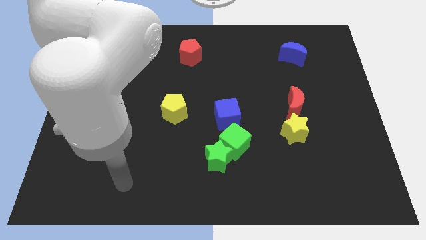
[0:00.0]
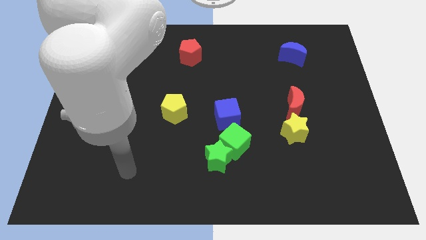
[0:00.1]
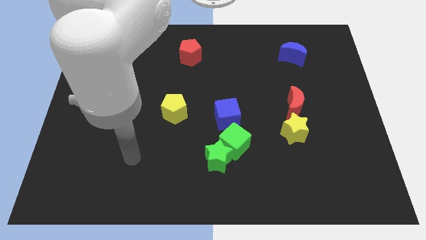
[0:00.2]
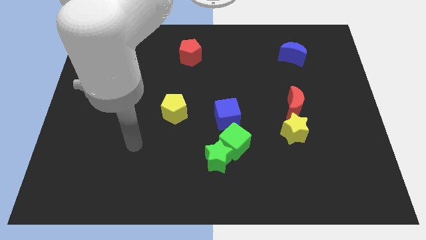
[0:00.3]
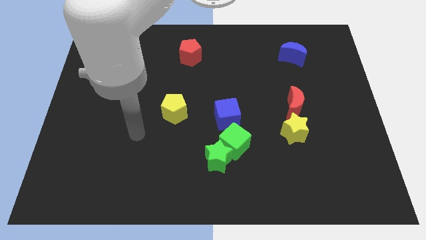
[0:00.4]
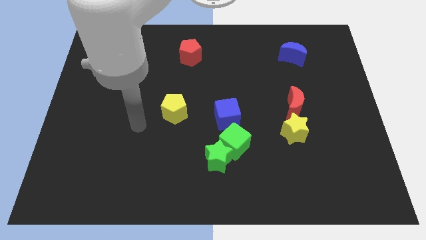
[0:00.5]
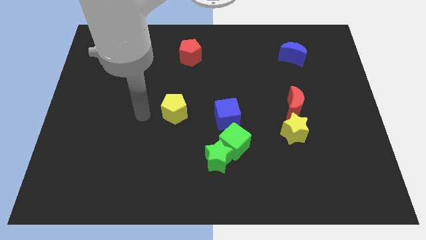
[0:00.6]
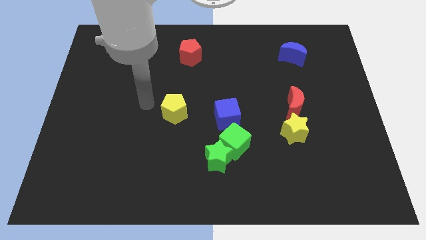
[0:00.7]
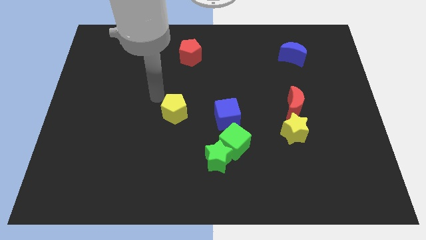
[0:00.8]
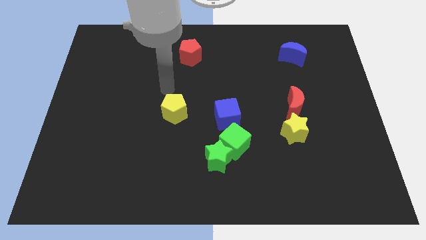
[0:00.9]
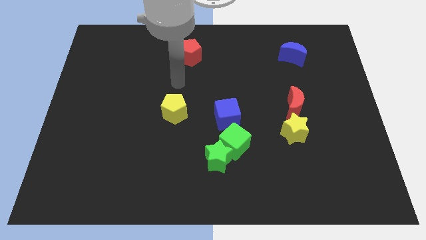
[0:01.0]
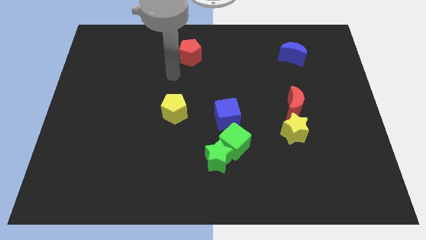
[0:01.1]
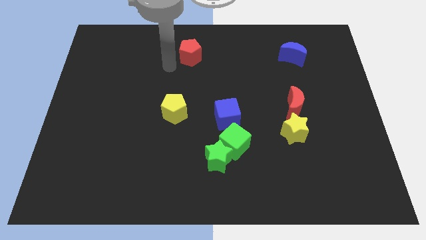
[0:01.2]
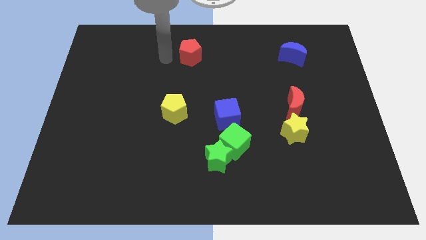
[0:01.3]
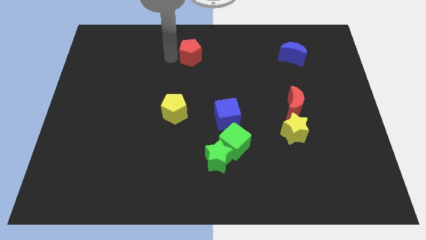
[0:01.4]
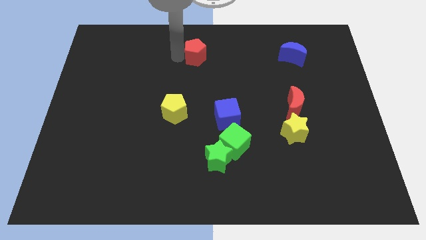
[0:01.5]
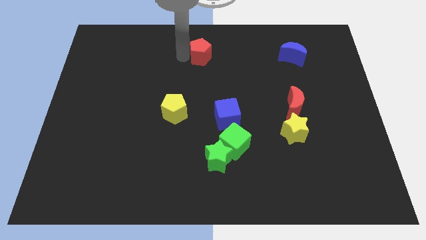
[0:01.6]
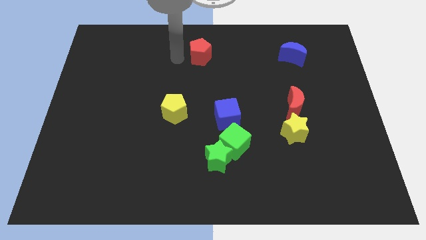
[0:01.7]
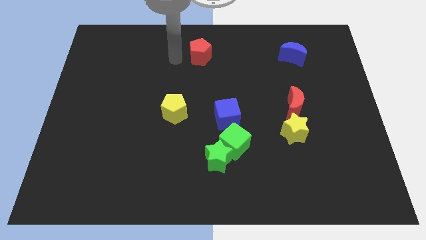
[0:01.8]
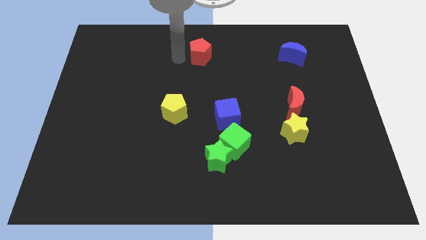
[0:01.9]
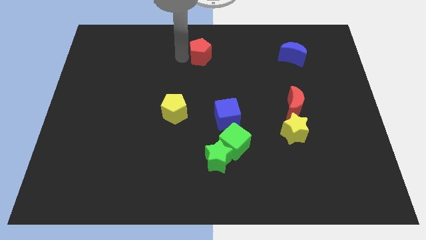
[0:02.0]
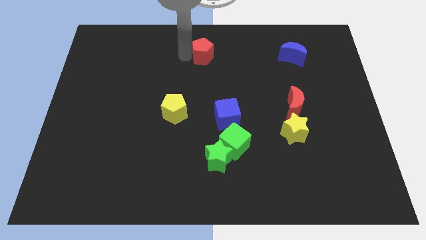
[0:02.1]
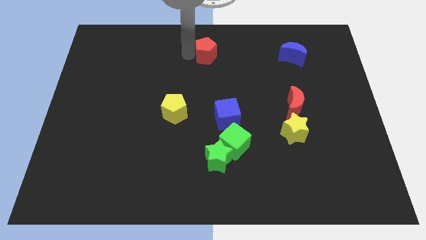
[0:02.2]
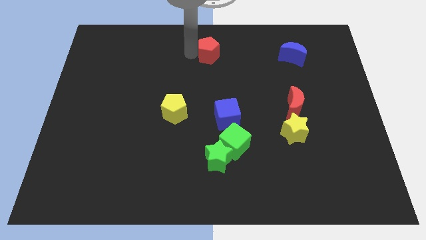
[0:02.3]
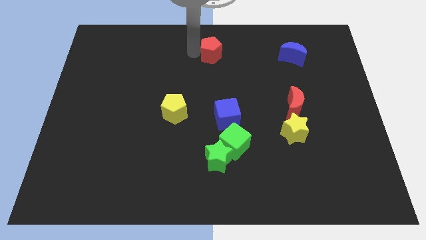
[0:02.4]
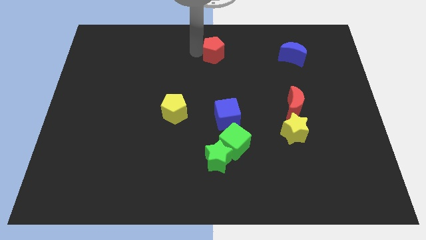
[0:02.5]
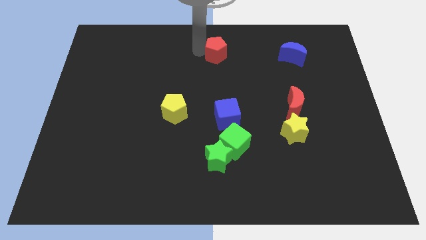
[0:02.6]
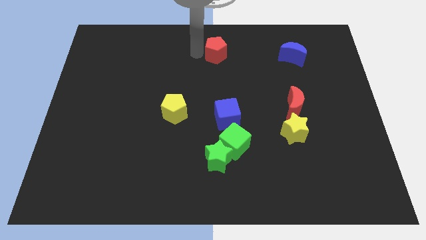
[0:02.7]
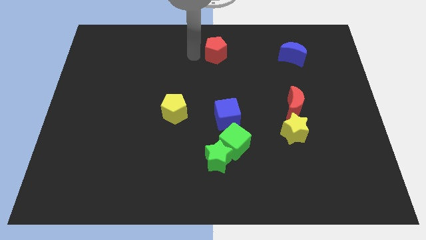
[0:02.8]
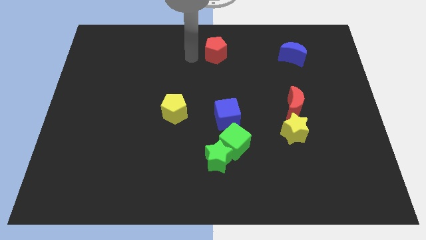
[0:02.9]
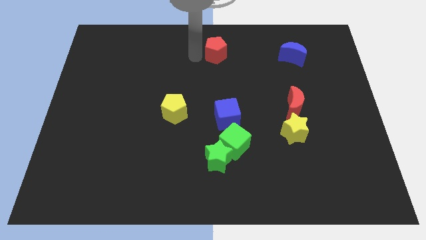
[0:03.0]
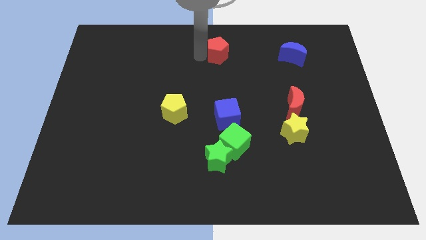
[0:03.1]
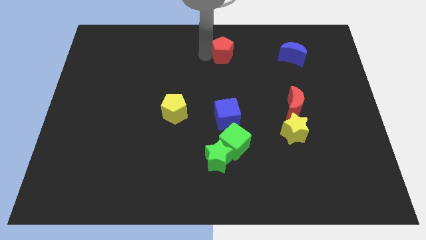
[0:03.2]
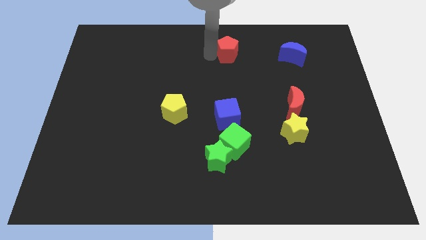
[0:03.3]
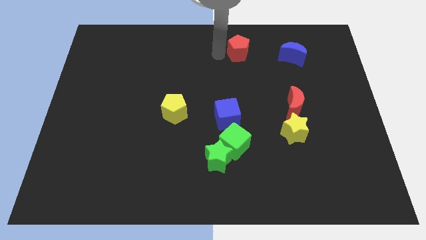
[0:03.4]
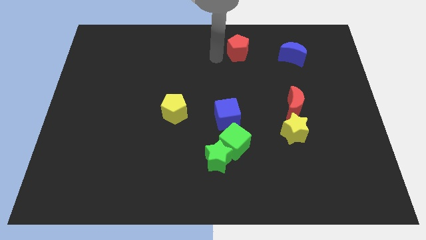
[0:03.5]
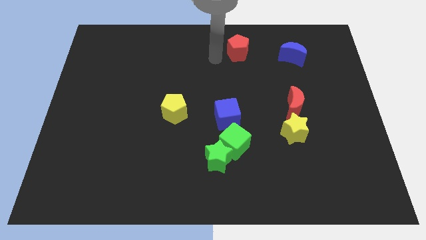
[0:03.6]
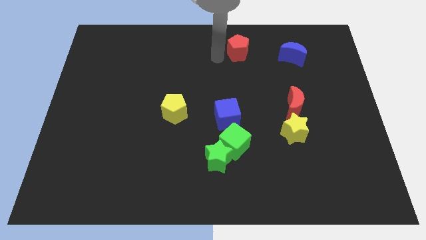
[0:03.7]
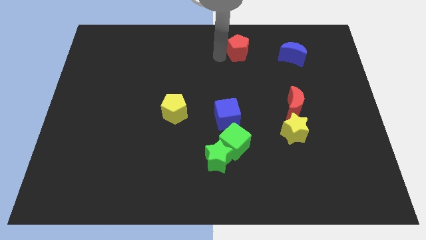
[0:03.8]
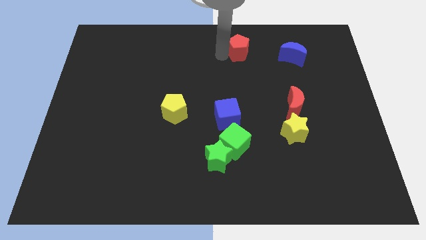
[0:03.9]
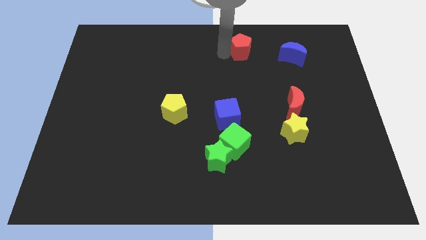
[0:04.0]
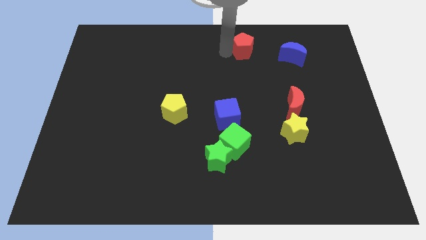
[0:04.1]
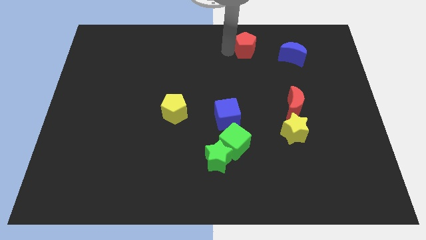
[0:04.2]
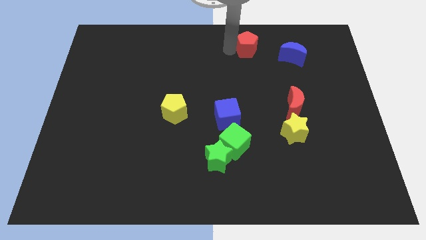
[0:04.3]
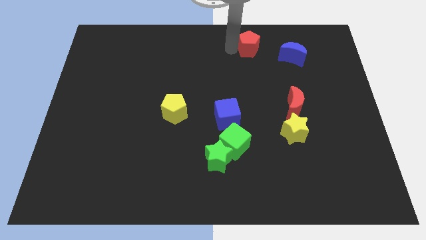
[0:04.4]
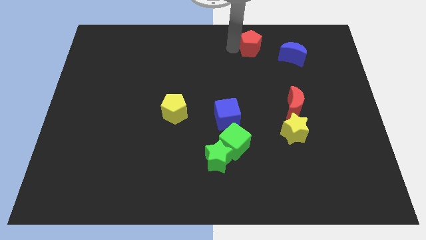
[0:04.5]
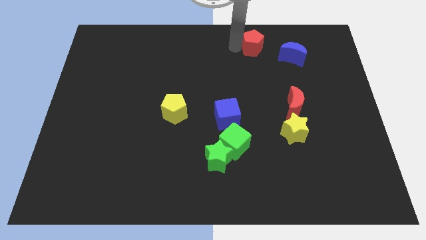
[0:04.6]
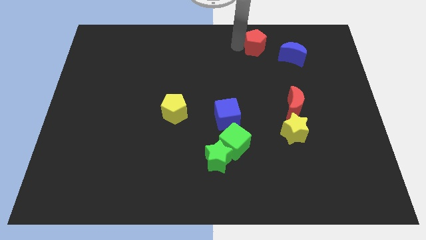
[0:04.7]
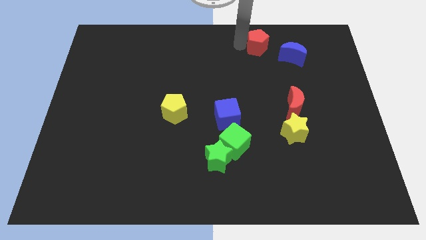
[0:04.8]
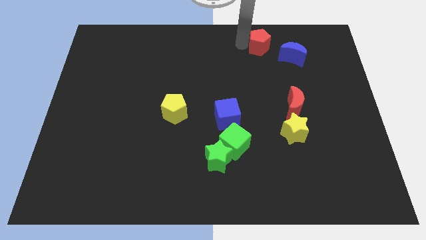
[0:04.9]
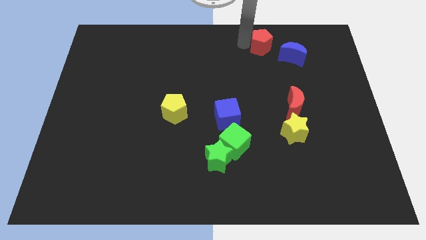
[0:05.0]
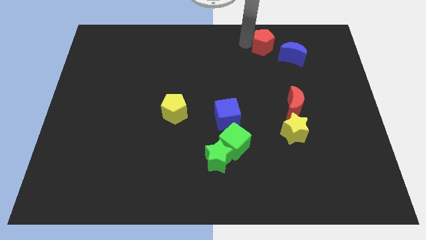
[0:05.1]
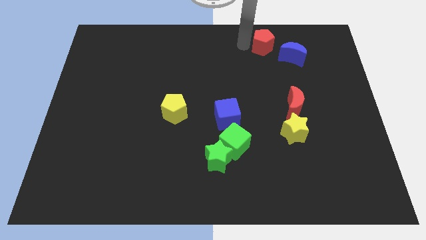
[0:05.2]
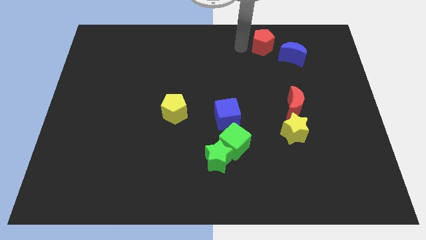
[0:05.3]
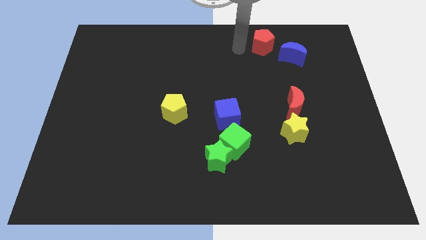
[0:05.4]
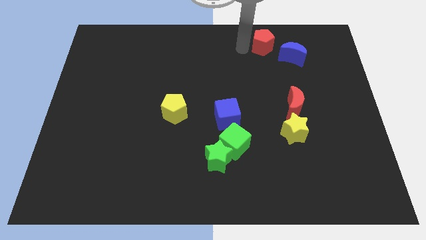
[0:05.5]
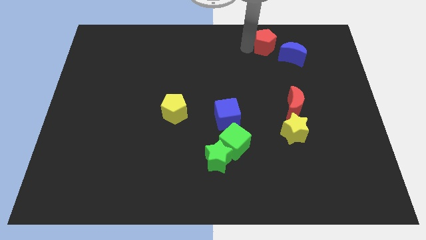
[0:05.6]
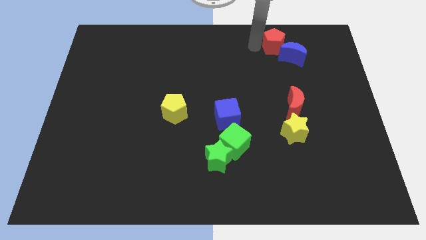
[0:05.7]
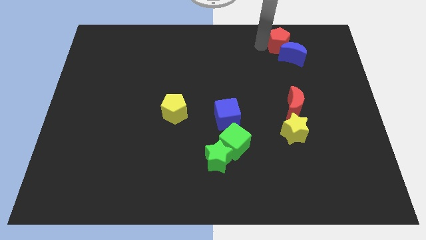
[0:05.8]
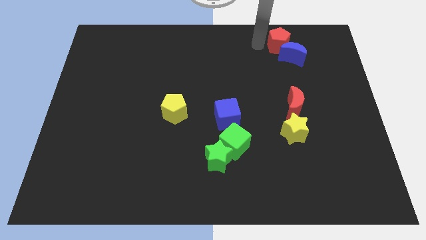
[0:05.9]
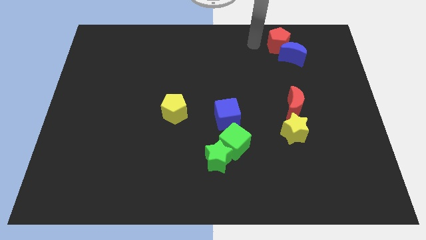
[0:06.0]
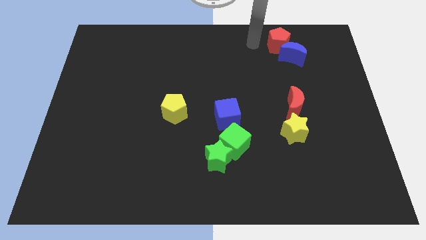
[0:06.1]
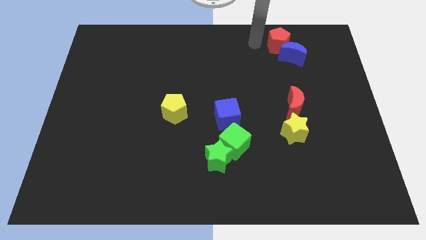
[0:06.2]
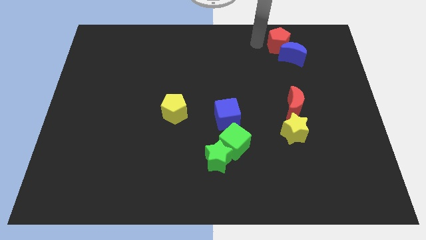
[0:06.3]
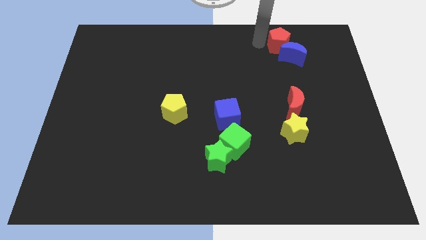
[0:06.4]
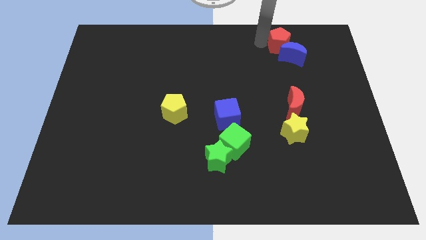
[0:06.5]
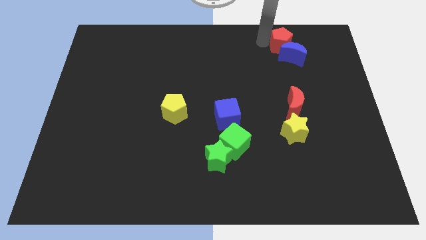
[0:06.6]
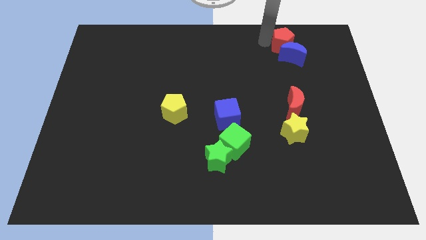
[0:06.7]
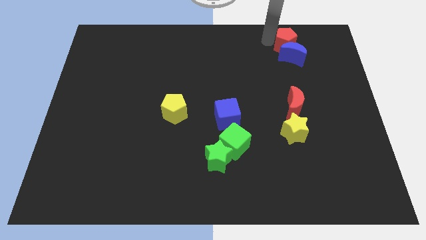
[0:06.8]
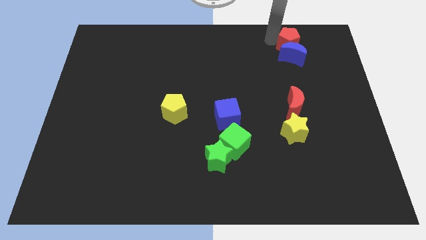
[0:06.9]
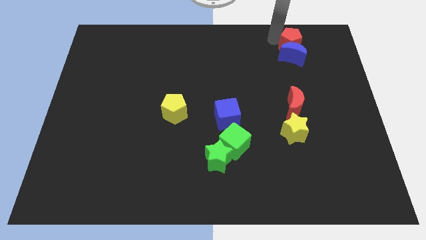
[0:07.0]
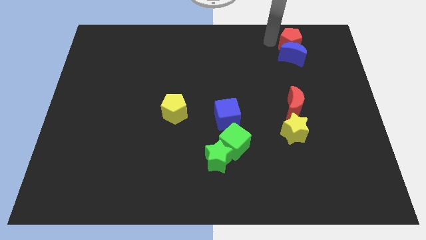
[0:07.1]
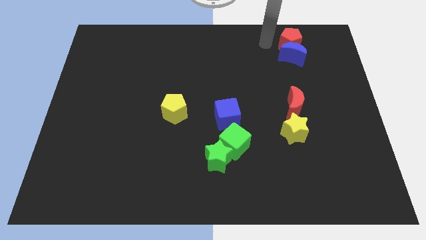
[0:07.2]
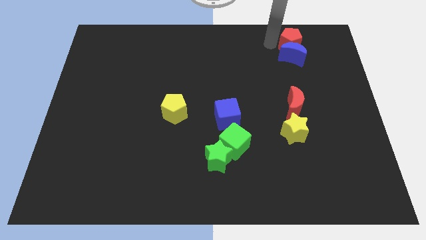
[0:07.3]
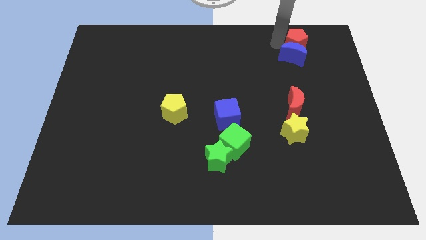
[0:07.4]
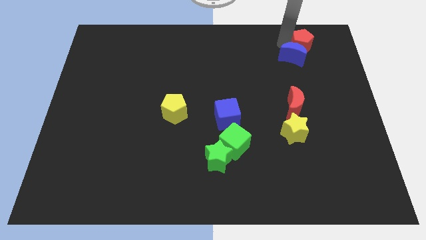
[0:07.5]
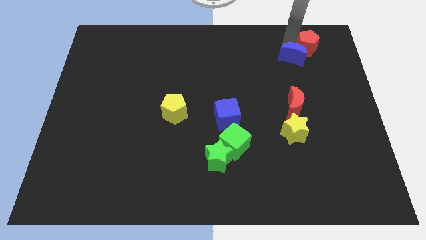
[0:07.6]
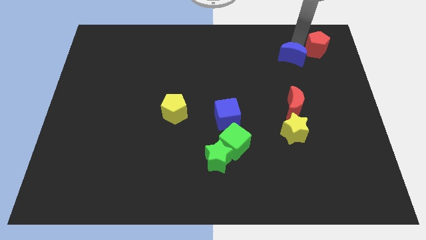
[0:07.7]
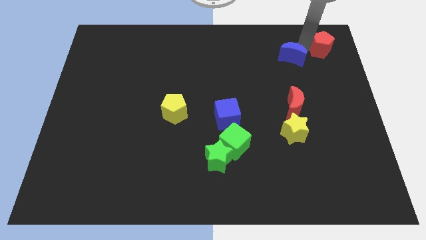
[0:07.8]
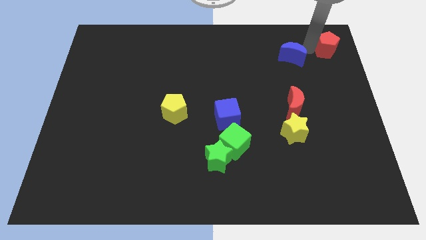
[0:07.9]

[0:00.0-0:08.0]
push the red pentagon to the top right of the board

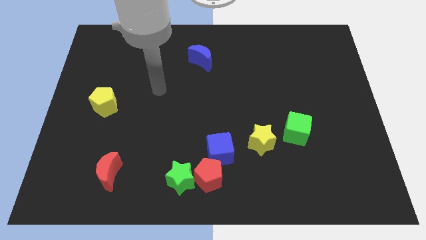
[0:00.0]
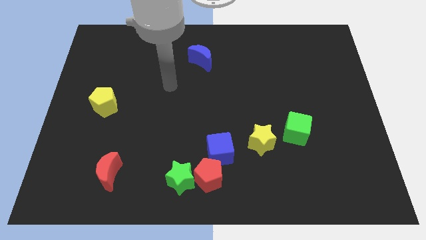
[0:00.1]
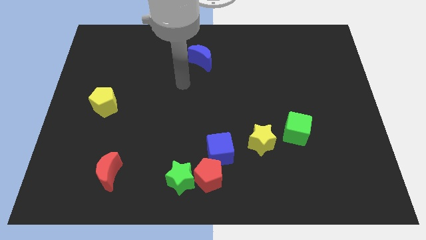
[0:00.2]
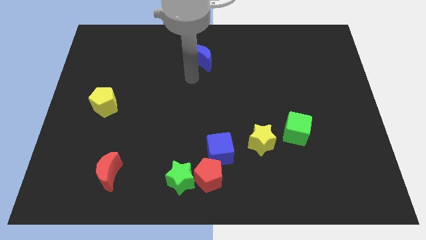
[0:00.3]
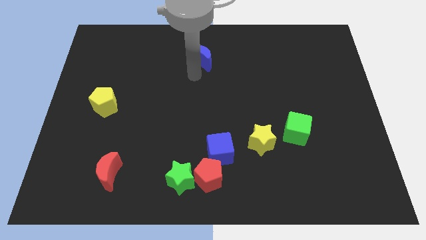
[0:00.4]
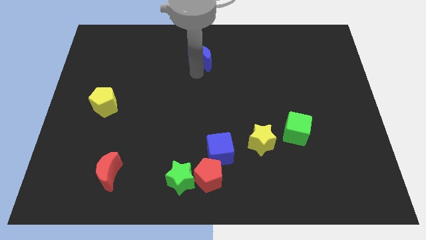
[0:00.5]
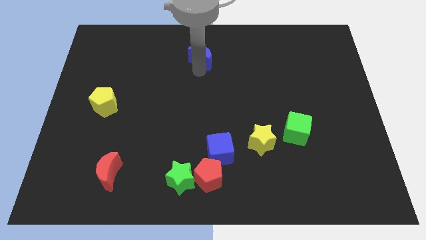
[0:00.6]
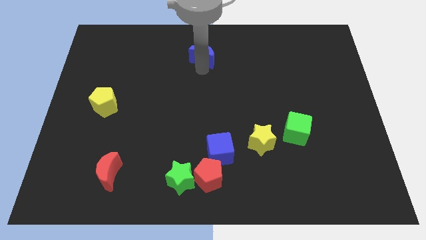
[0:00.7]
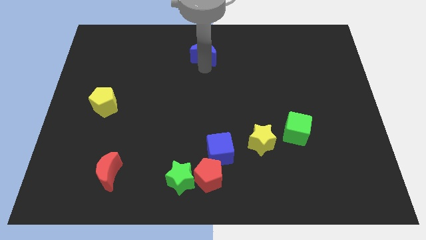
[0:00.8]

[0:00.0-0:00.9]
move the blue moon to the top
